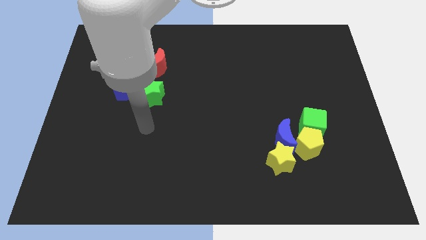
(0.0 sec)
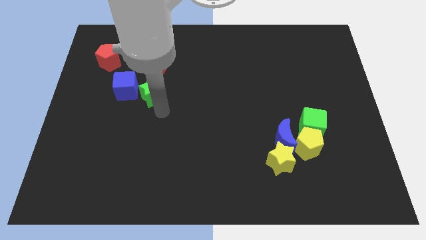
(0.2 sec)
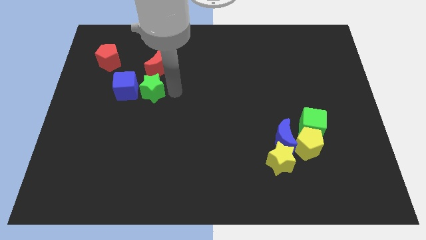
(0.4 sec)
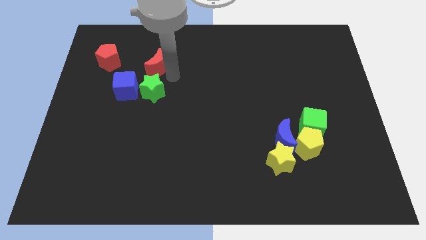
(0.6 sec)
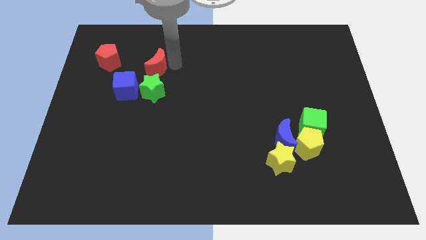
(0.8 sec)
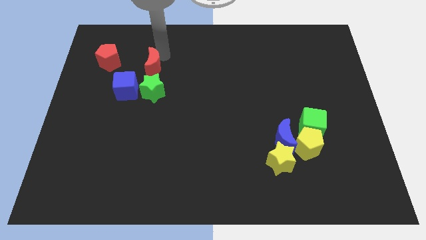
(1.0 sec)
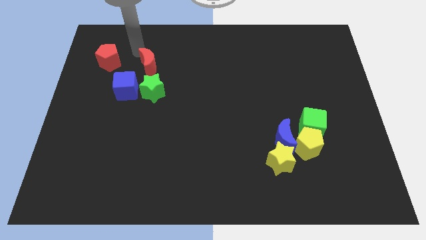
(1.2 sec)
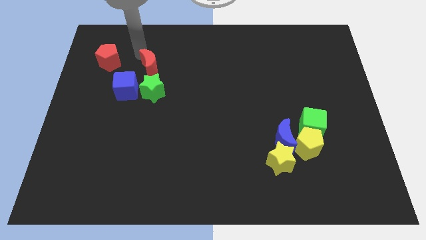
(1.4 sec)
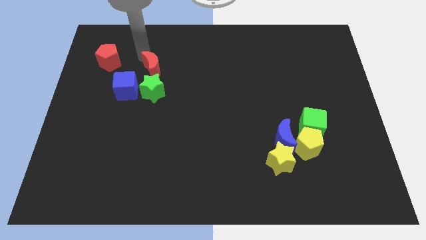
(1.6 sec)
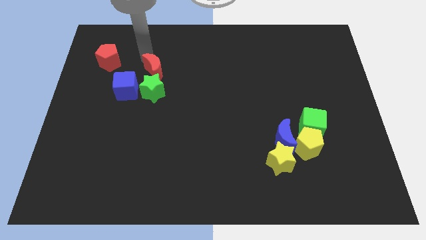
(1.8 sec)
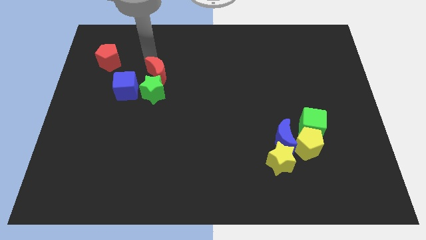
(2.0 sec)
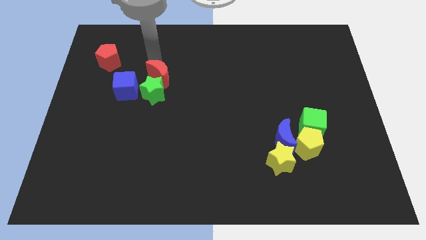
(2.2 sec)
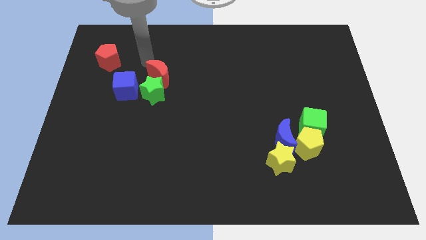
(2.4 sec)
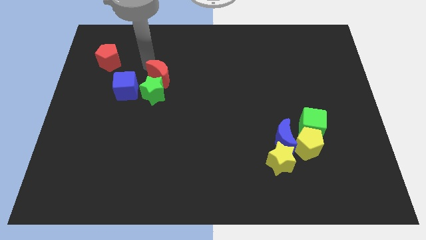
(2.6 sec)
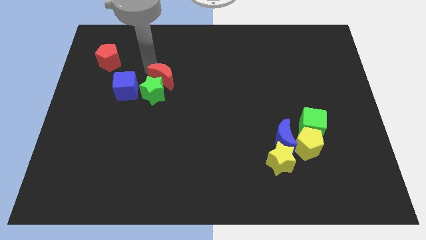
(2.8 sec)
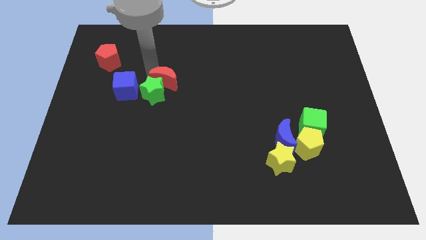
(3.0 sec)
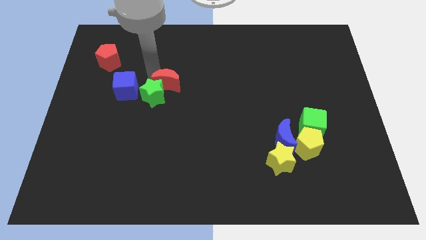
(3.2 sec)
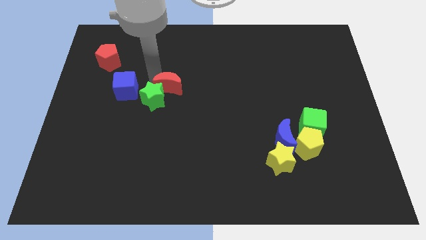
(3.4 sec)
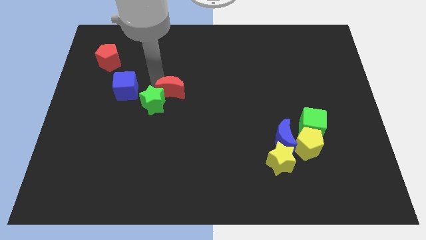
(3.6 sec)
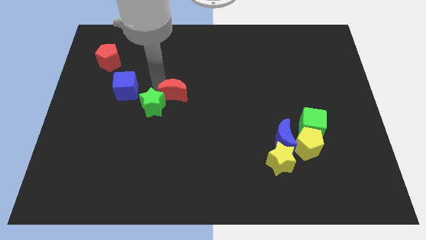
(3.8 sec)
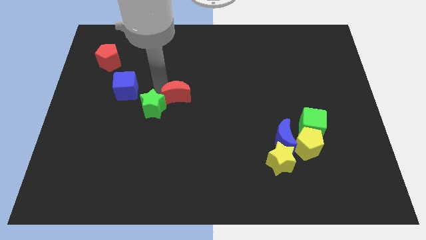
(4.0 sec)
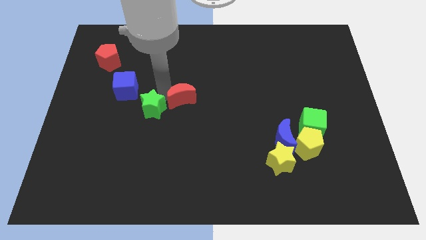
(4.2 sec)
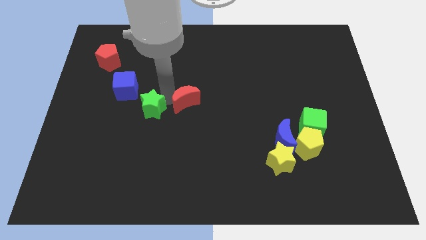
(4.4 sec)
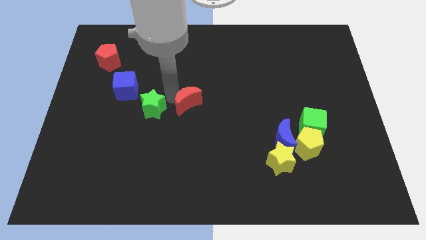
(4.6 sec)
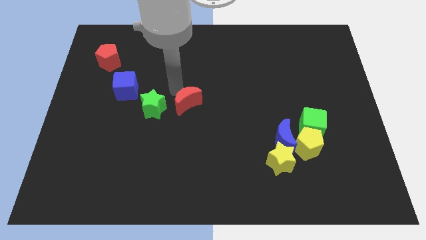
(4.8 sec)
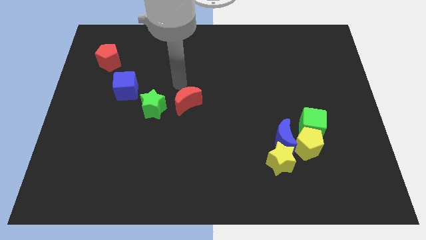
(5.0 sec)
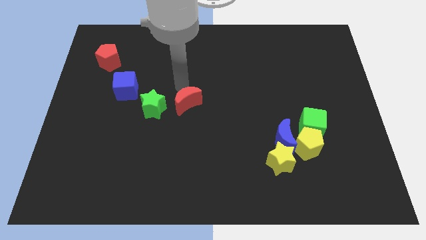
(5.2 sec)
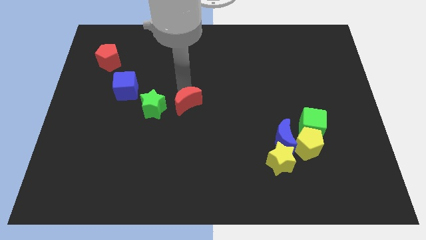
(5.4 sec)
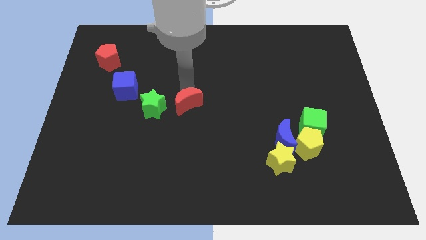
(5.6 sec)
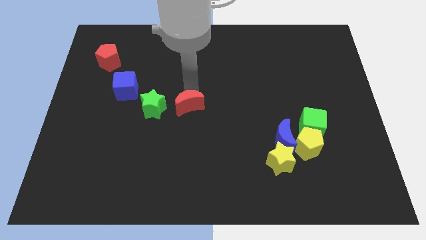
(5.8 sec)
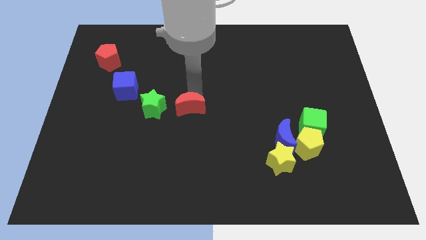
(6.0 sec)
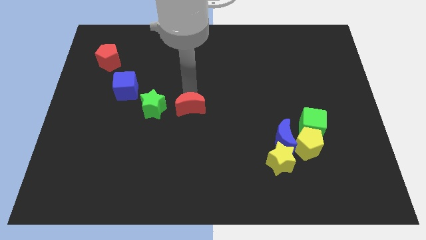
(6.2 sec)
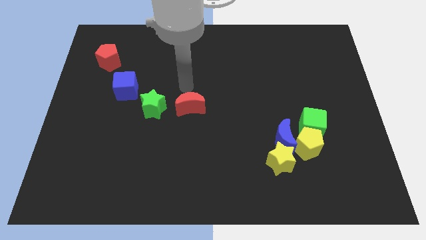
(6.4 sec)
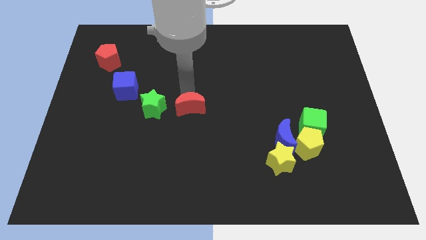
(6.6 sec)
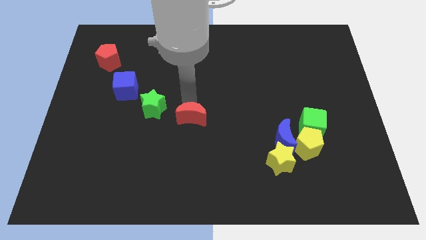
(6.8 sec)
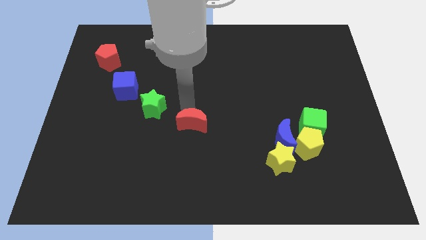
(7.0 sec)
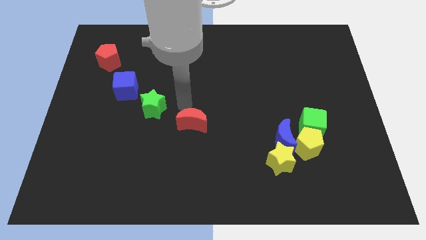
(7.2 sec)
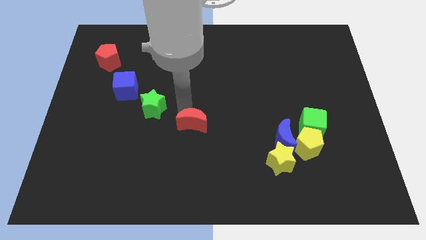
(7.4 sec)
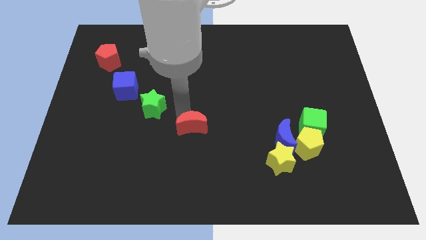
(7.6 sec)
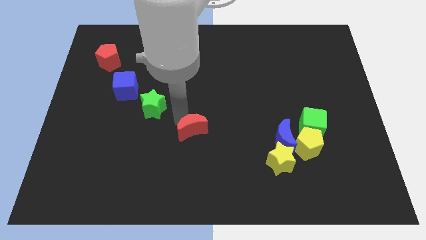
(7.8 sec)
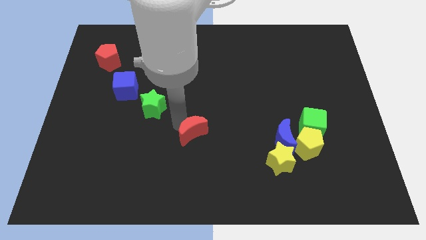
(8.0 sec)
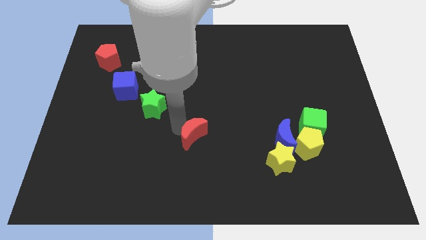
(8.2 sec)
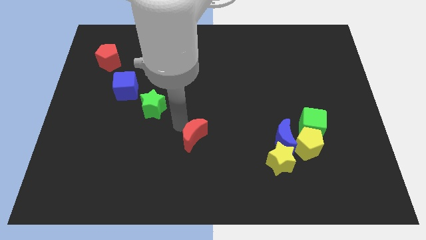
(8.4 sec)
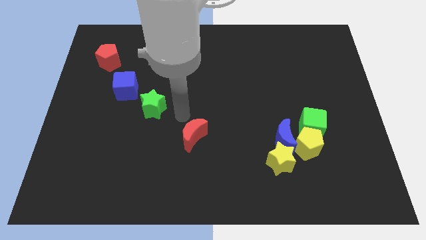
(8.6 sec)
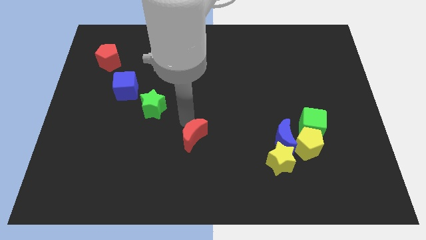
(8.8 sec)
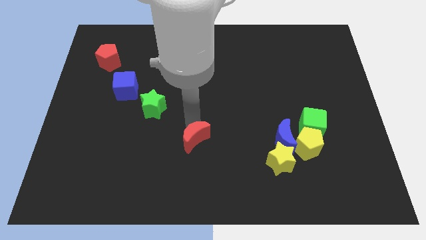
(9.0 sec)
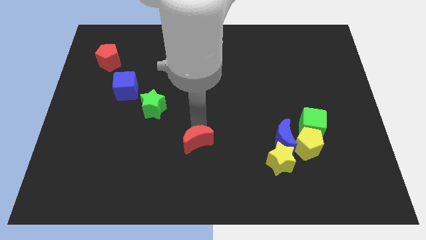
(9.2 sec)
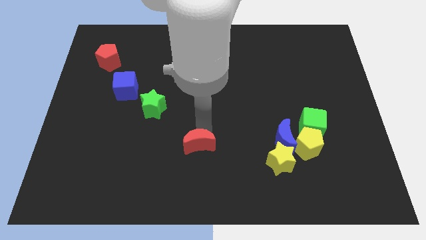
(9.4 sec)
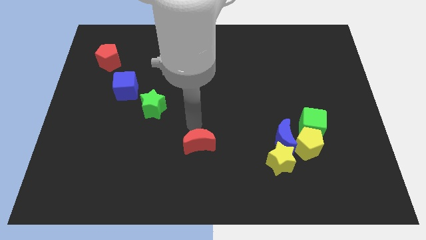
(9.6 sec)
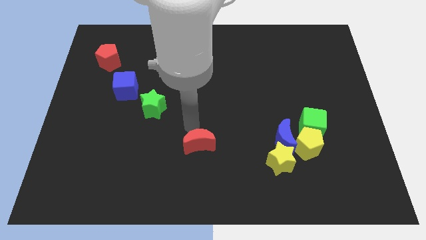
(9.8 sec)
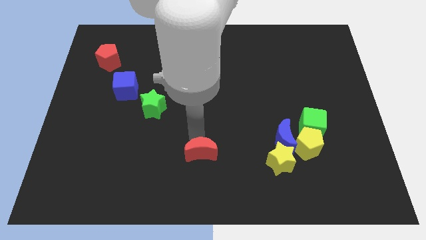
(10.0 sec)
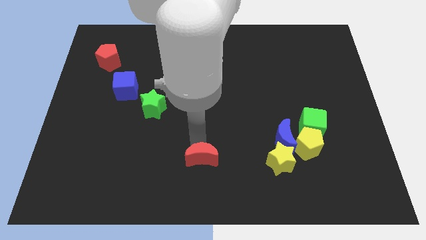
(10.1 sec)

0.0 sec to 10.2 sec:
move the red moon to the bottom side
